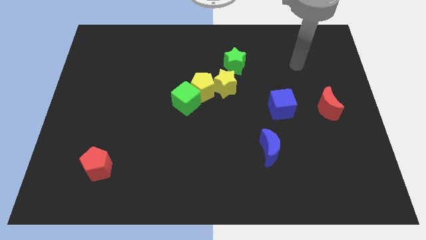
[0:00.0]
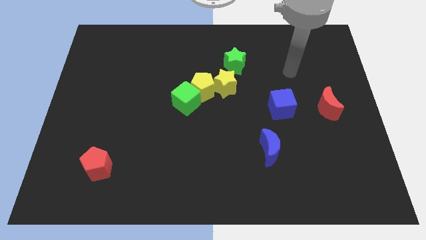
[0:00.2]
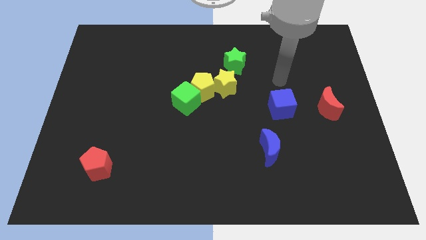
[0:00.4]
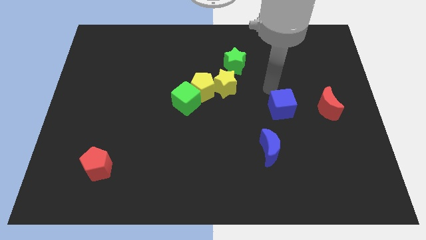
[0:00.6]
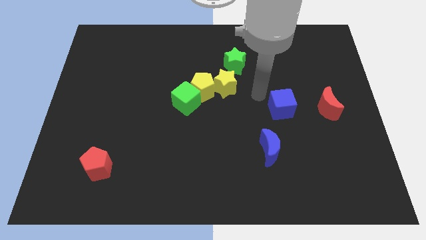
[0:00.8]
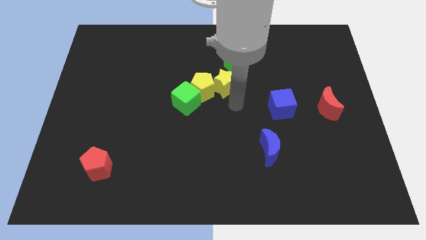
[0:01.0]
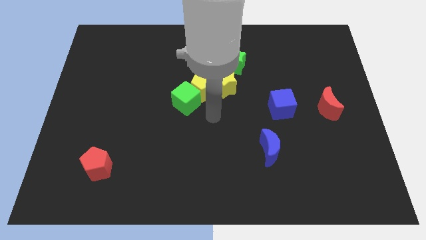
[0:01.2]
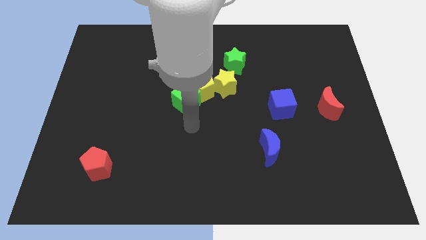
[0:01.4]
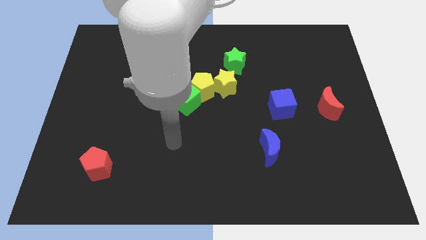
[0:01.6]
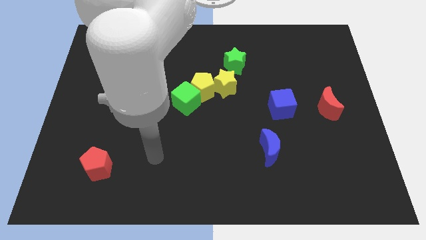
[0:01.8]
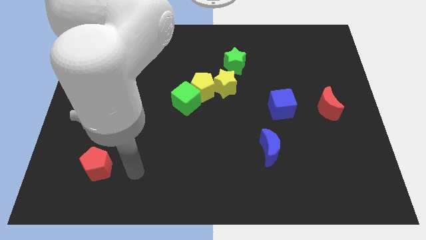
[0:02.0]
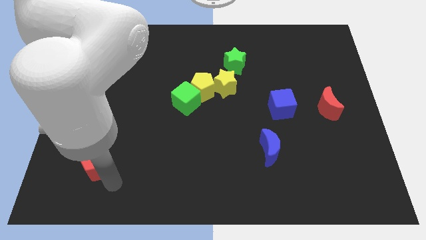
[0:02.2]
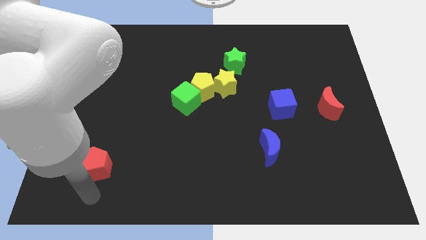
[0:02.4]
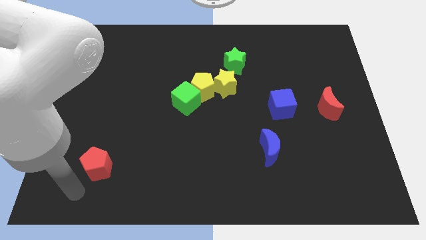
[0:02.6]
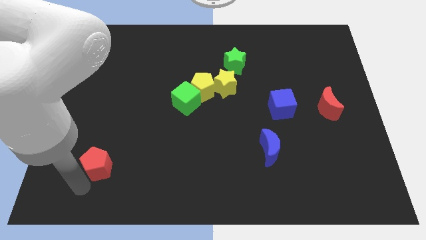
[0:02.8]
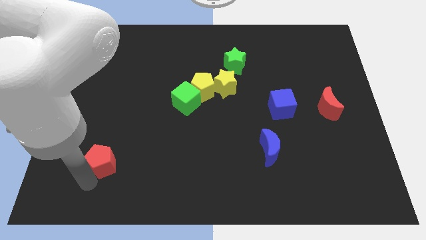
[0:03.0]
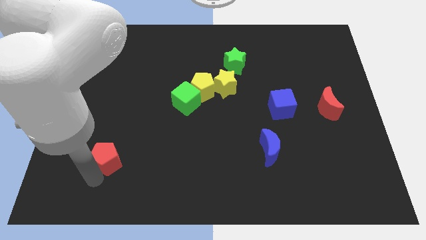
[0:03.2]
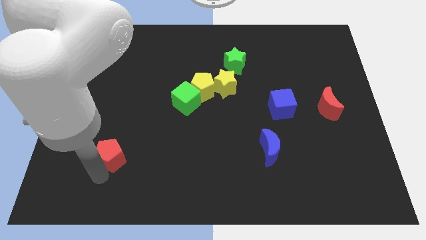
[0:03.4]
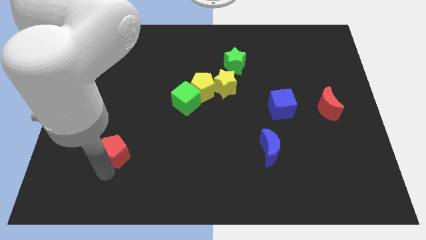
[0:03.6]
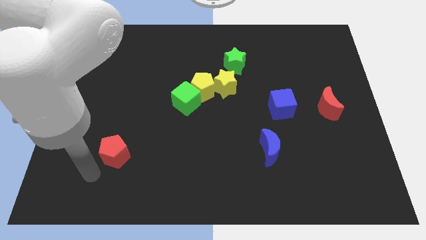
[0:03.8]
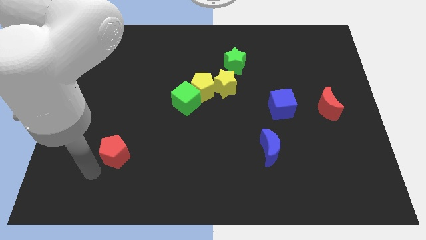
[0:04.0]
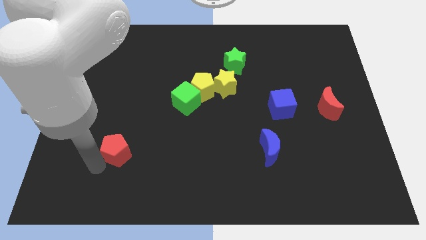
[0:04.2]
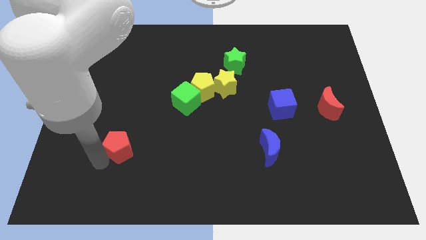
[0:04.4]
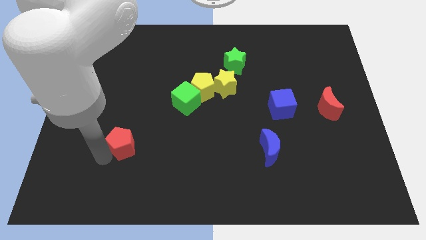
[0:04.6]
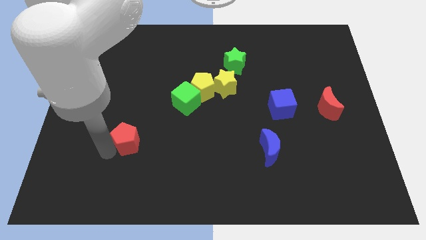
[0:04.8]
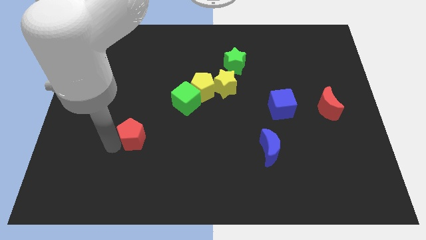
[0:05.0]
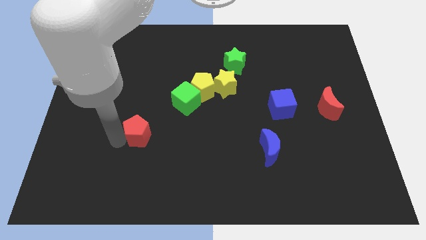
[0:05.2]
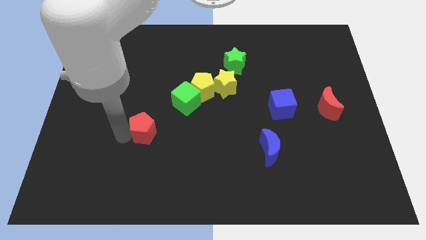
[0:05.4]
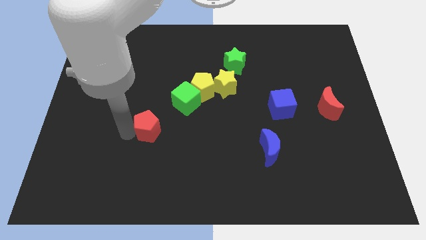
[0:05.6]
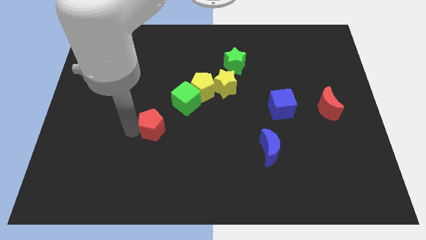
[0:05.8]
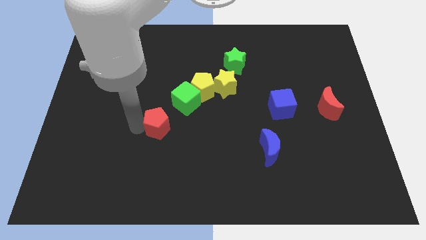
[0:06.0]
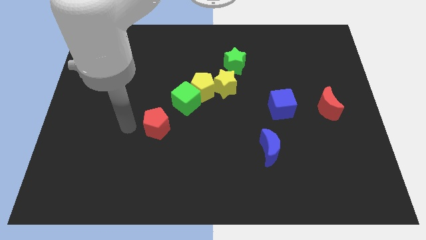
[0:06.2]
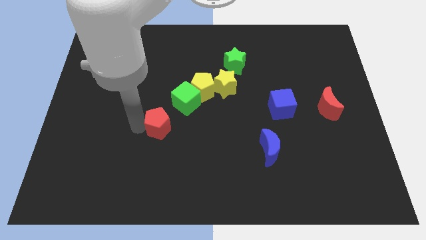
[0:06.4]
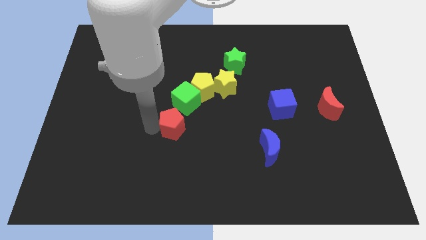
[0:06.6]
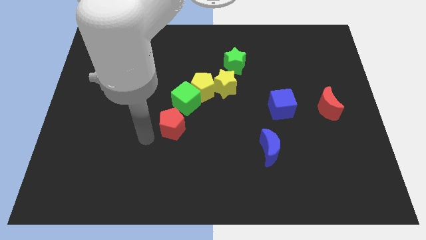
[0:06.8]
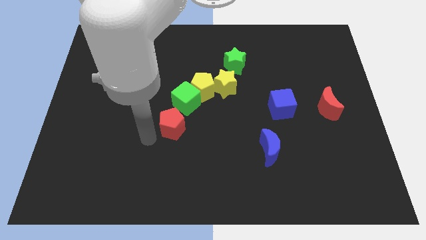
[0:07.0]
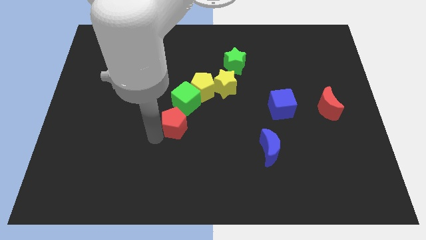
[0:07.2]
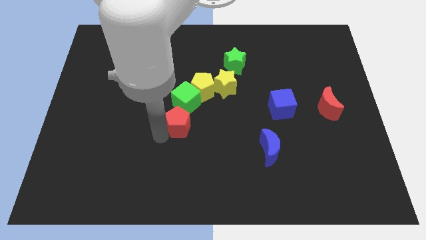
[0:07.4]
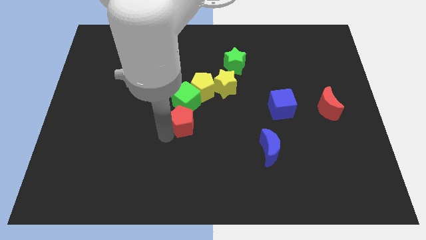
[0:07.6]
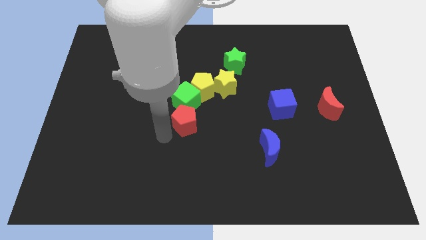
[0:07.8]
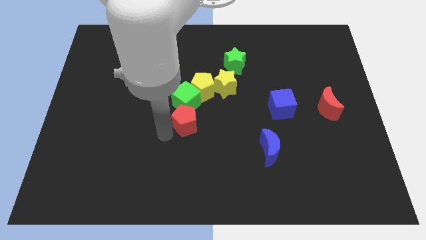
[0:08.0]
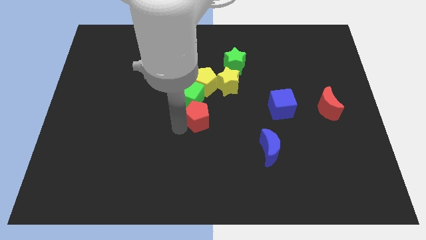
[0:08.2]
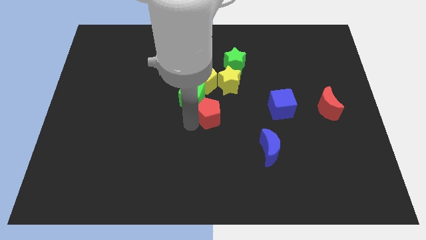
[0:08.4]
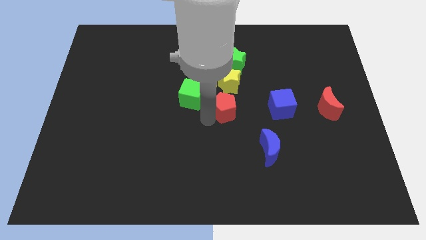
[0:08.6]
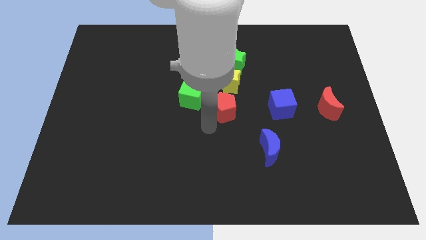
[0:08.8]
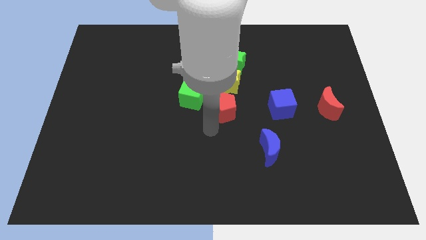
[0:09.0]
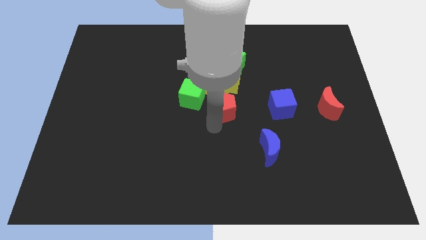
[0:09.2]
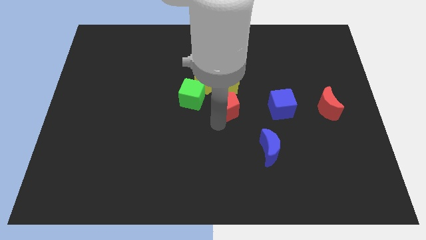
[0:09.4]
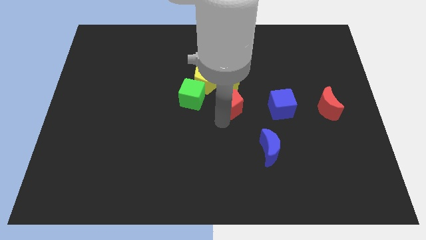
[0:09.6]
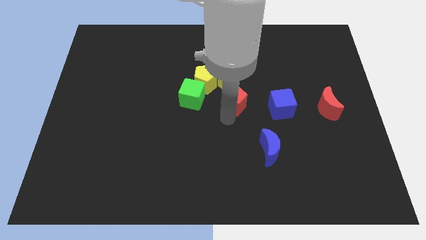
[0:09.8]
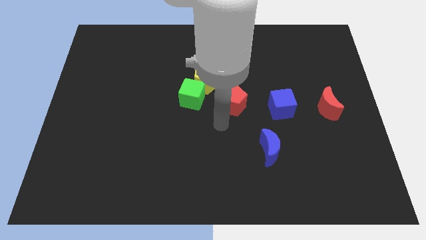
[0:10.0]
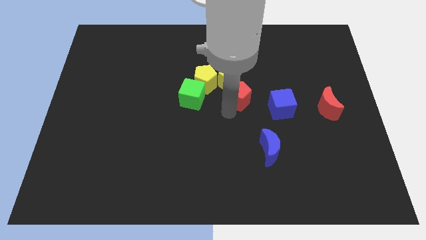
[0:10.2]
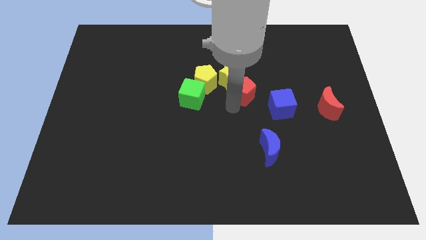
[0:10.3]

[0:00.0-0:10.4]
move the red pentagon to the right of the yellow pentagon

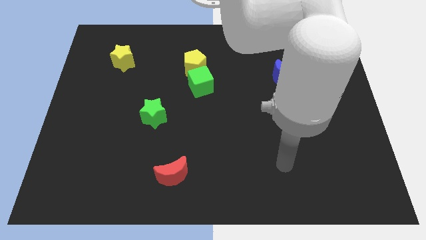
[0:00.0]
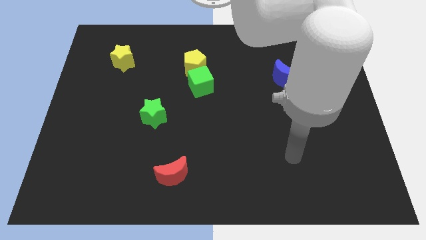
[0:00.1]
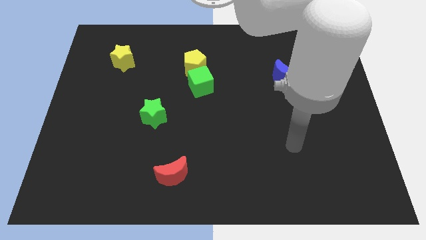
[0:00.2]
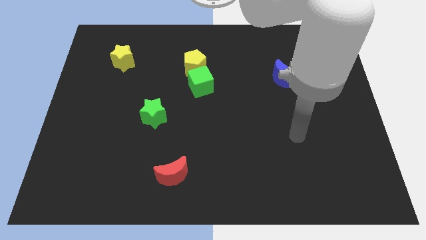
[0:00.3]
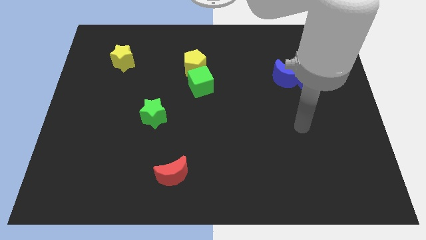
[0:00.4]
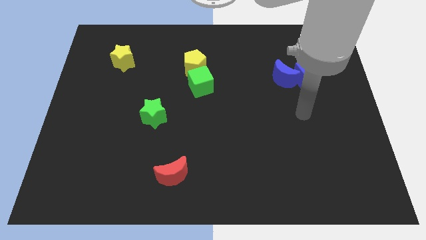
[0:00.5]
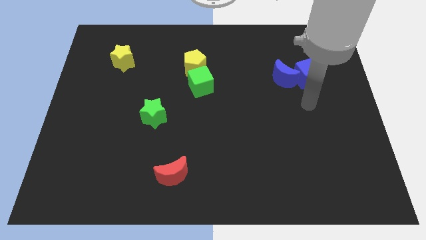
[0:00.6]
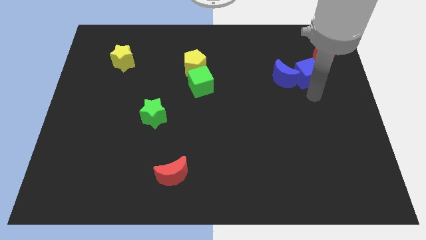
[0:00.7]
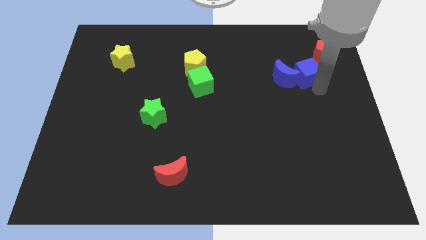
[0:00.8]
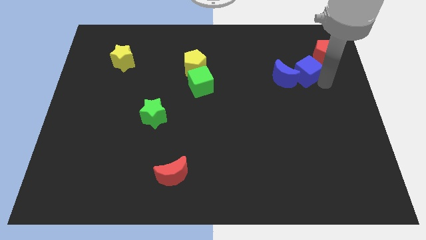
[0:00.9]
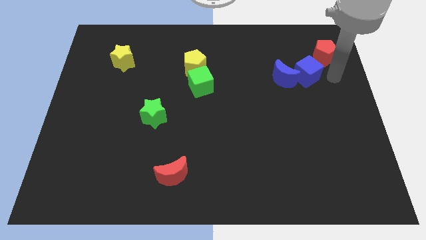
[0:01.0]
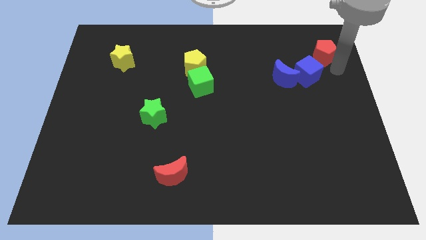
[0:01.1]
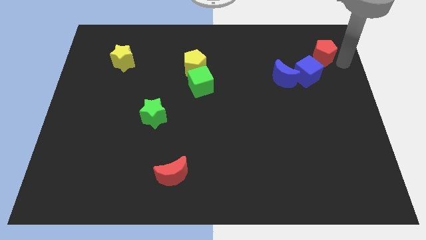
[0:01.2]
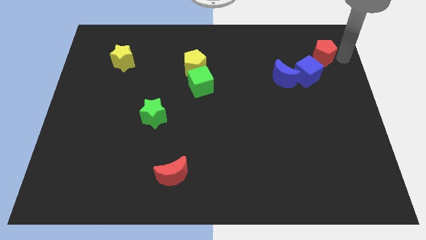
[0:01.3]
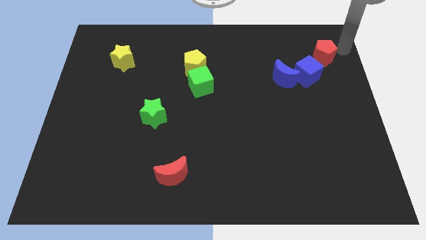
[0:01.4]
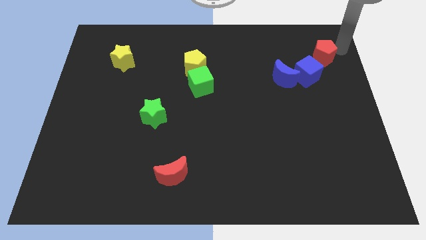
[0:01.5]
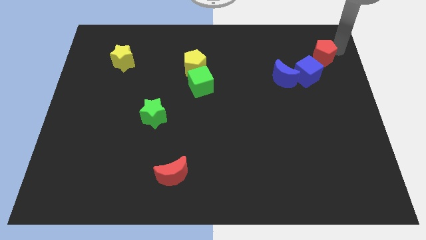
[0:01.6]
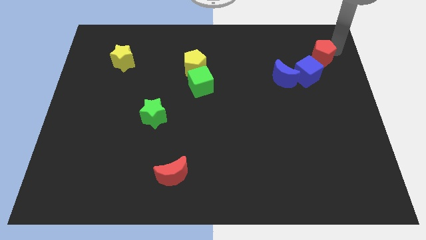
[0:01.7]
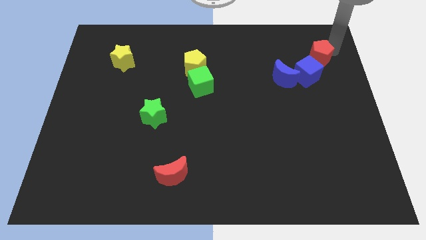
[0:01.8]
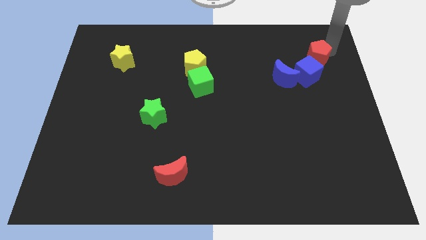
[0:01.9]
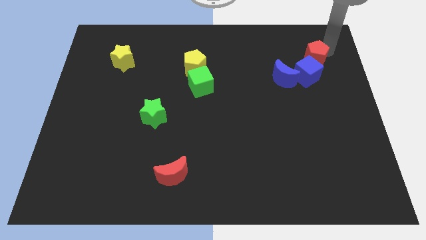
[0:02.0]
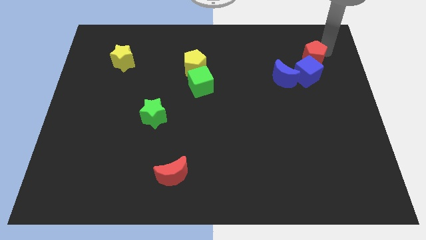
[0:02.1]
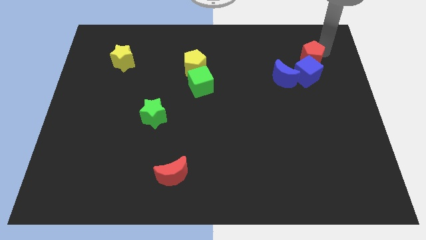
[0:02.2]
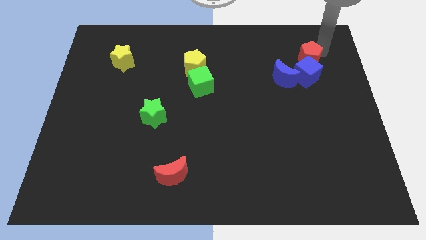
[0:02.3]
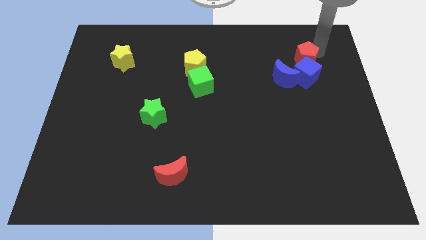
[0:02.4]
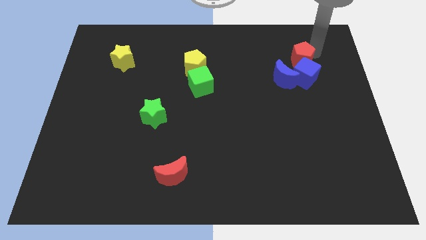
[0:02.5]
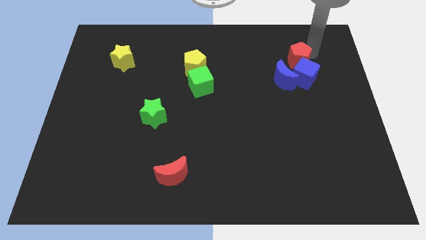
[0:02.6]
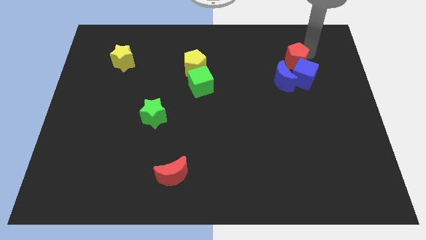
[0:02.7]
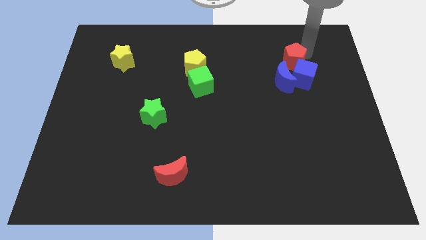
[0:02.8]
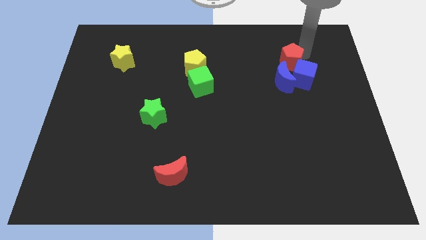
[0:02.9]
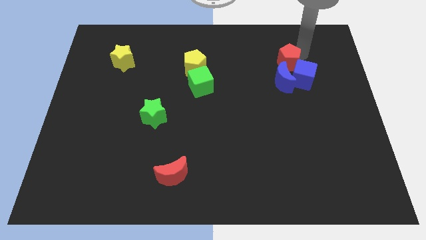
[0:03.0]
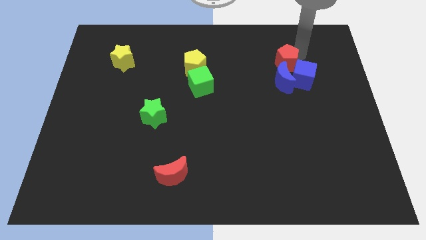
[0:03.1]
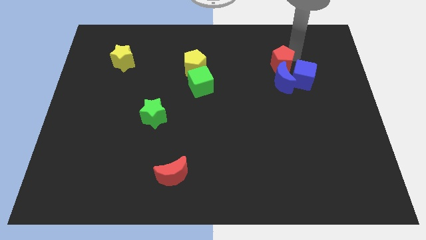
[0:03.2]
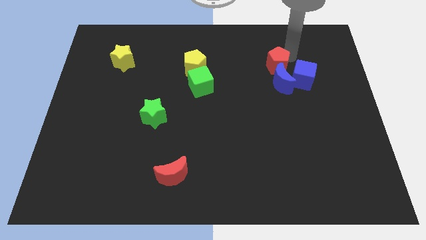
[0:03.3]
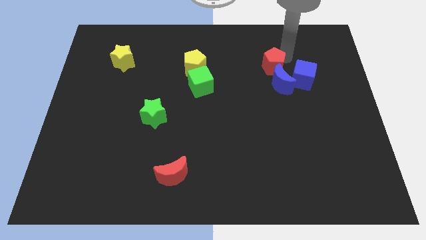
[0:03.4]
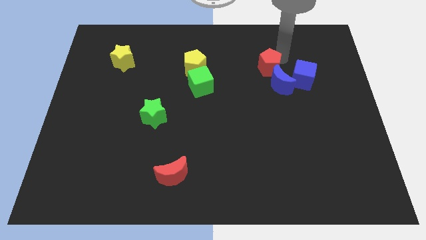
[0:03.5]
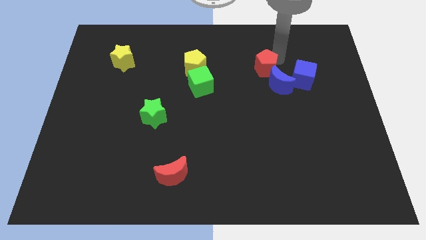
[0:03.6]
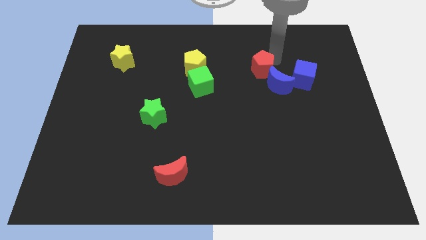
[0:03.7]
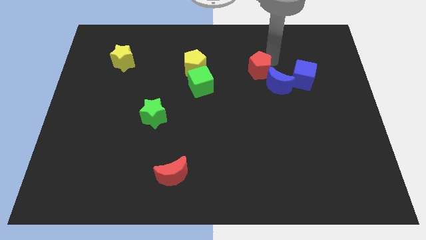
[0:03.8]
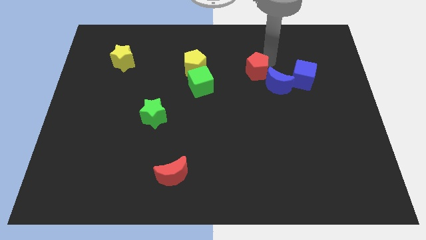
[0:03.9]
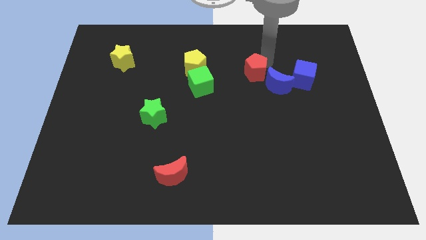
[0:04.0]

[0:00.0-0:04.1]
move the red pentagon just right of the green cube
